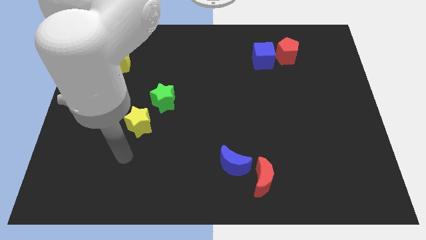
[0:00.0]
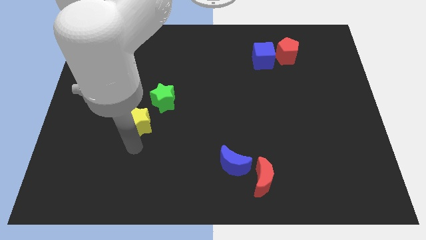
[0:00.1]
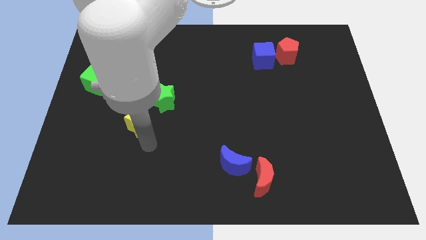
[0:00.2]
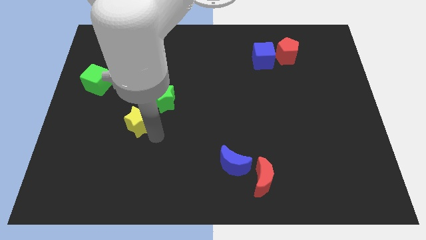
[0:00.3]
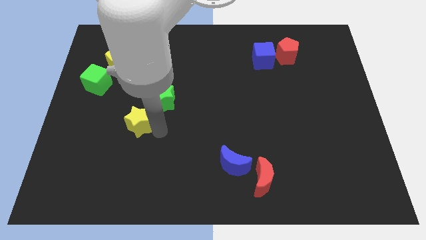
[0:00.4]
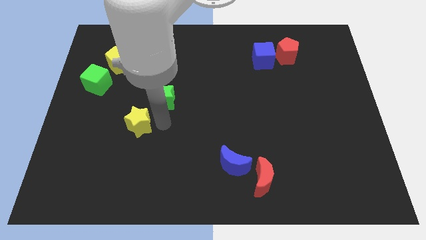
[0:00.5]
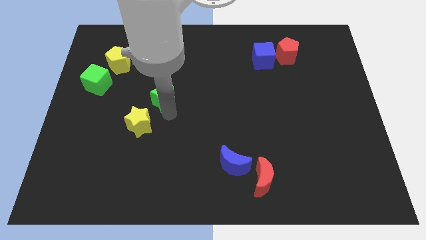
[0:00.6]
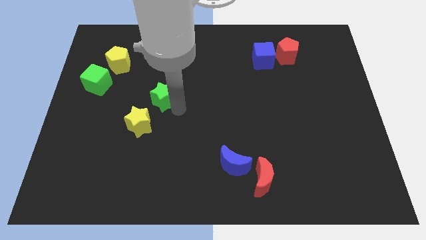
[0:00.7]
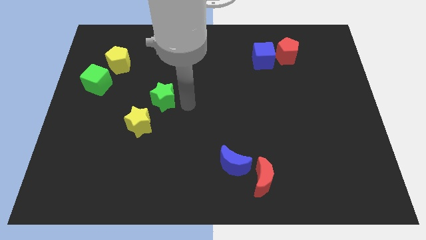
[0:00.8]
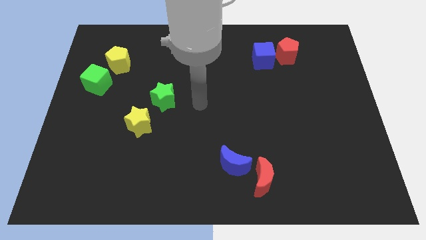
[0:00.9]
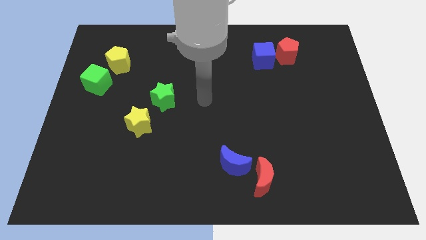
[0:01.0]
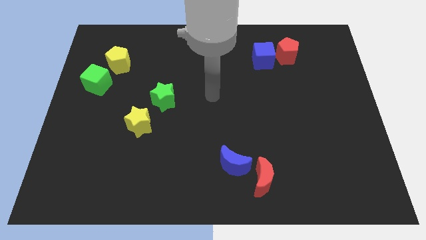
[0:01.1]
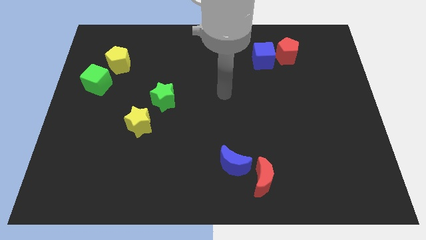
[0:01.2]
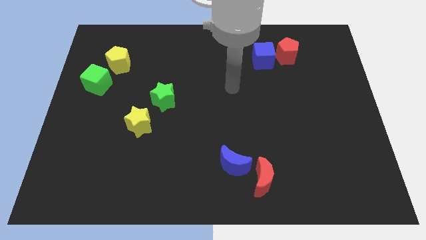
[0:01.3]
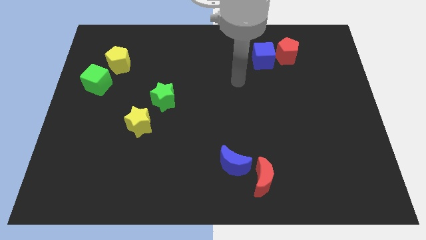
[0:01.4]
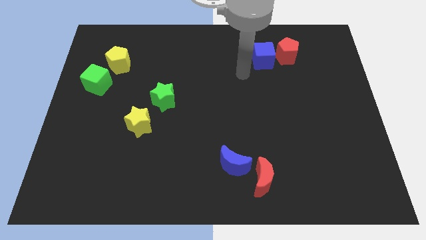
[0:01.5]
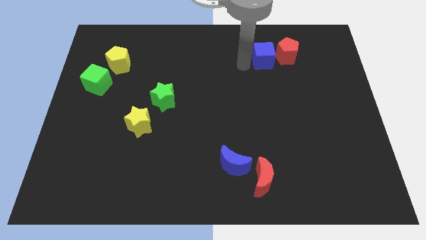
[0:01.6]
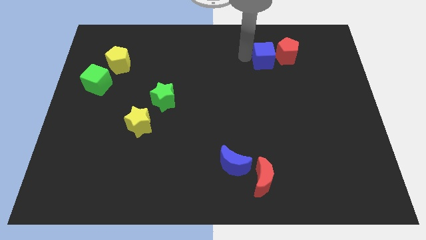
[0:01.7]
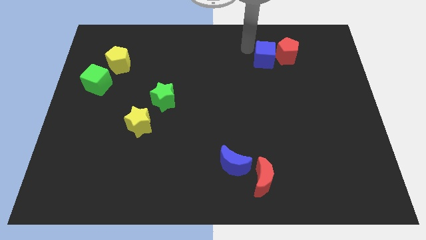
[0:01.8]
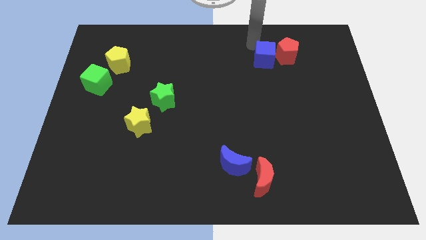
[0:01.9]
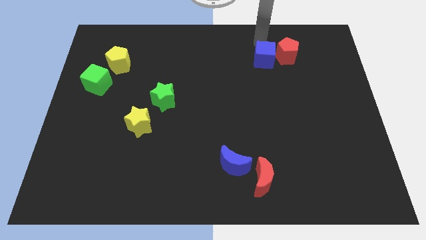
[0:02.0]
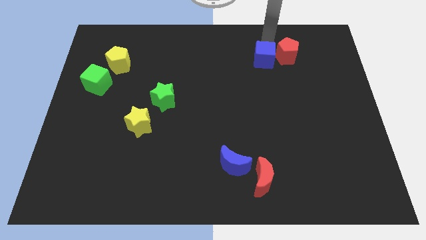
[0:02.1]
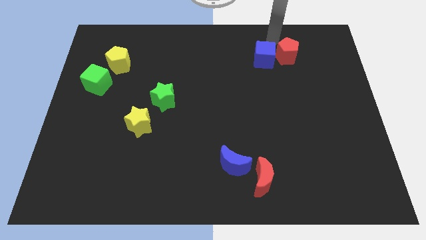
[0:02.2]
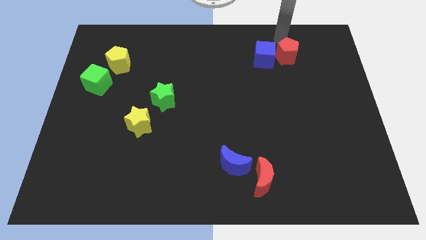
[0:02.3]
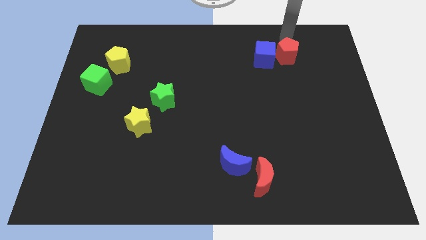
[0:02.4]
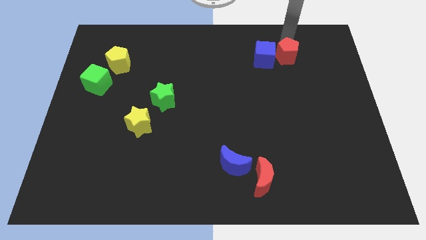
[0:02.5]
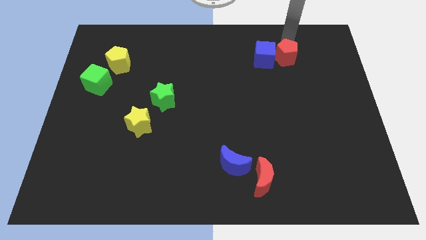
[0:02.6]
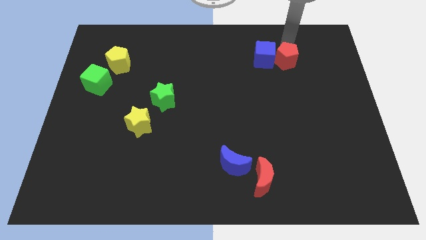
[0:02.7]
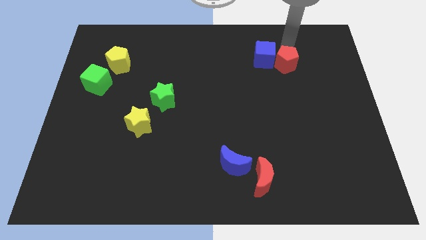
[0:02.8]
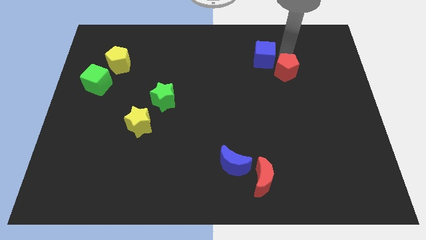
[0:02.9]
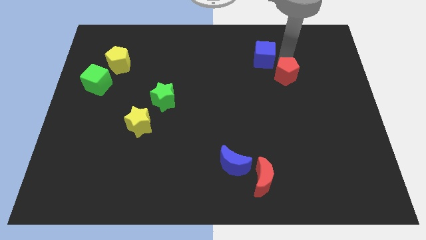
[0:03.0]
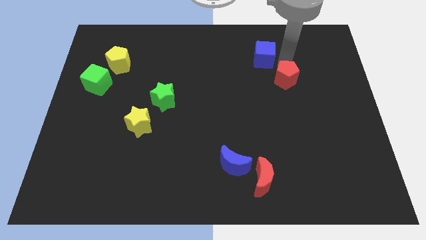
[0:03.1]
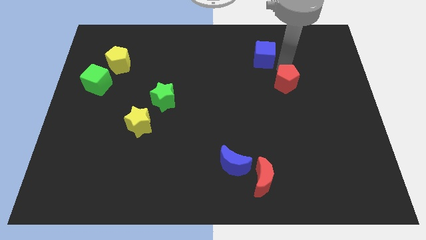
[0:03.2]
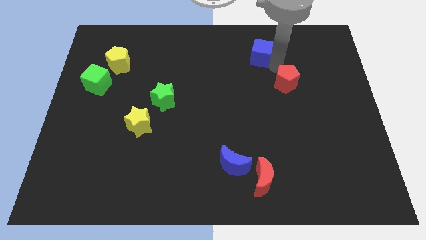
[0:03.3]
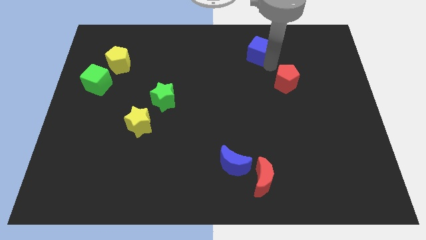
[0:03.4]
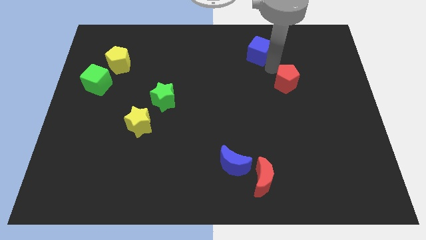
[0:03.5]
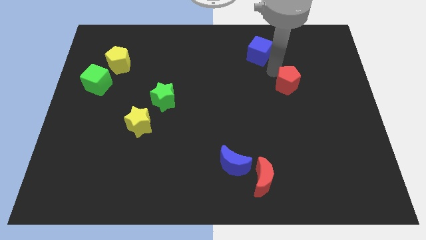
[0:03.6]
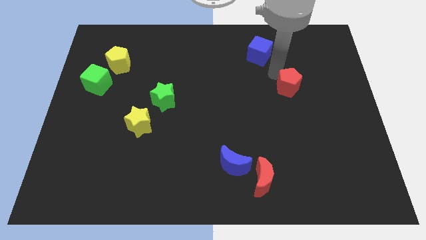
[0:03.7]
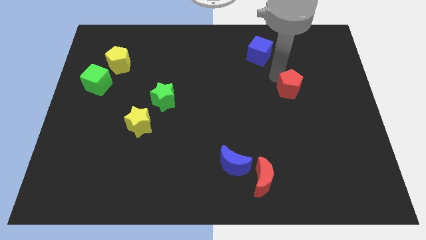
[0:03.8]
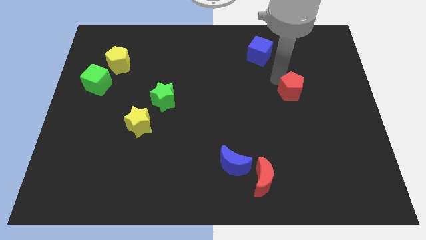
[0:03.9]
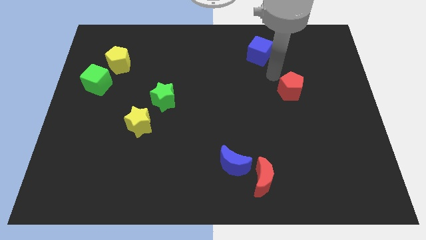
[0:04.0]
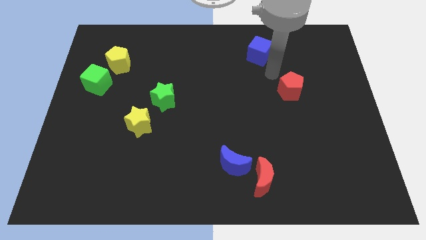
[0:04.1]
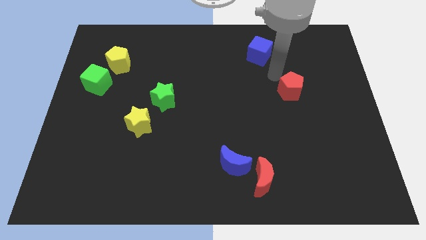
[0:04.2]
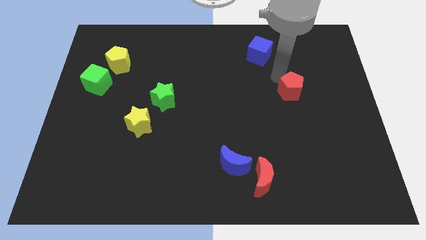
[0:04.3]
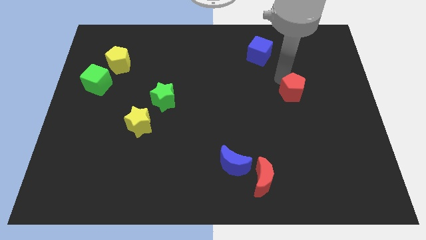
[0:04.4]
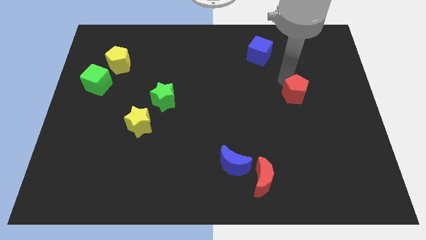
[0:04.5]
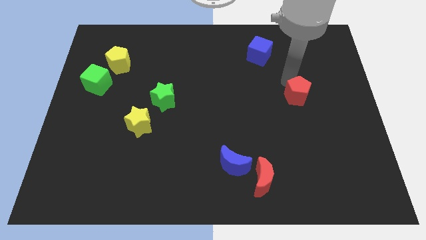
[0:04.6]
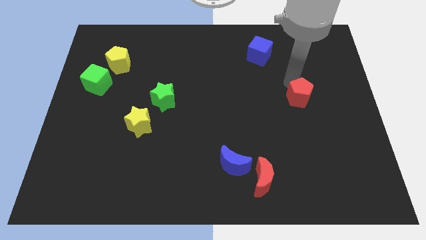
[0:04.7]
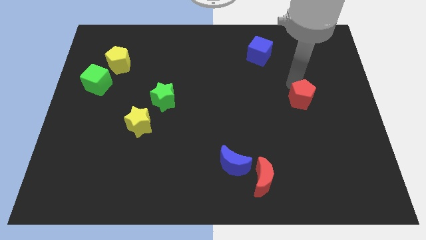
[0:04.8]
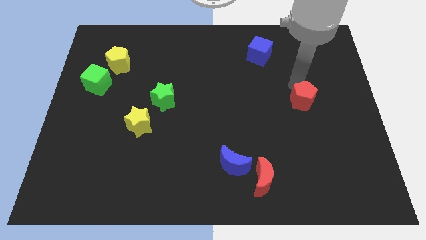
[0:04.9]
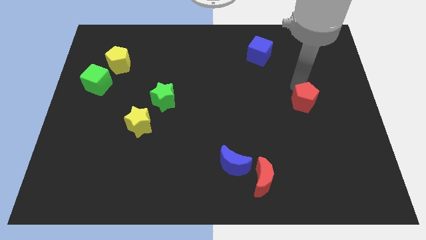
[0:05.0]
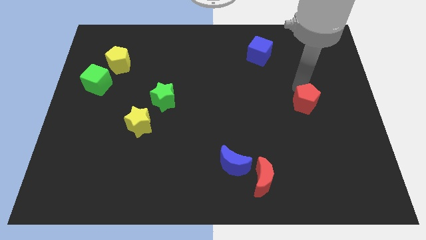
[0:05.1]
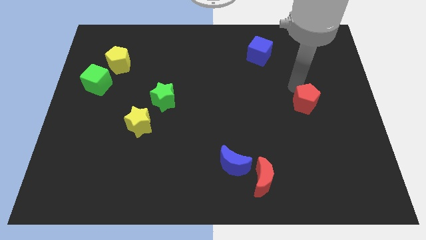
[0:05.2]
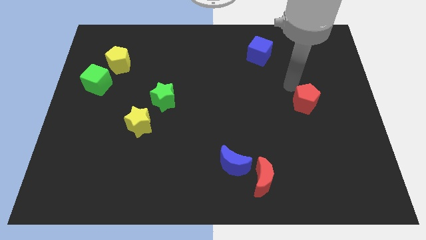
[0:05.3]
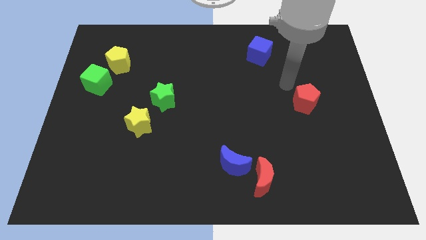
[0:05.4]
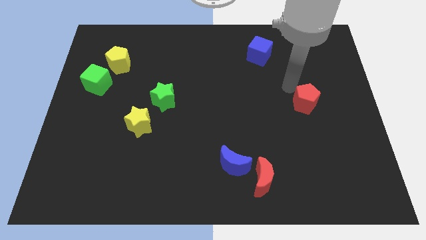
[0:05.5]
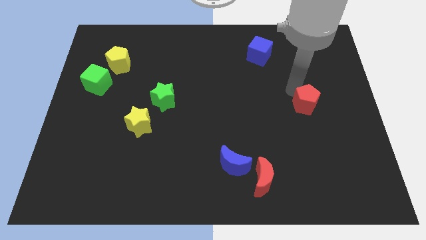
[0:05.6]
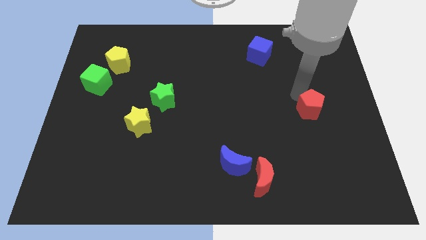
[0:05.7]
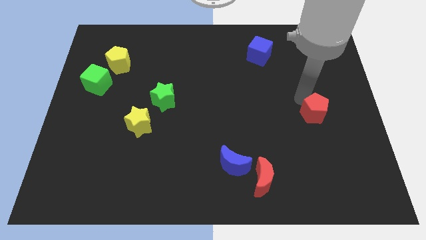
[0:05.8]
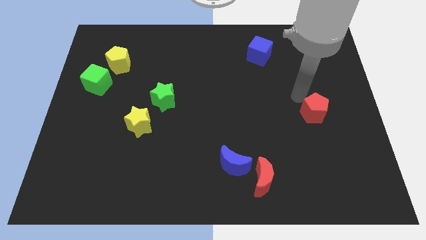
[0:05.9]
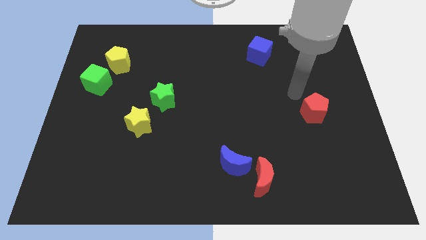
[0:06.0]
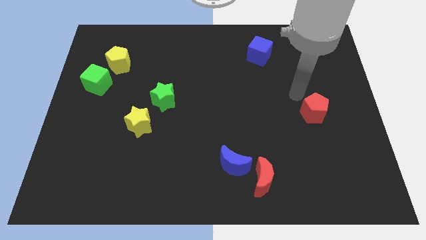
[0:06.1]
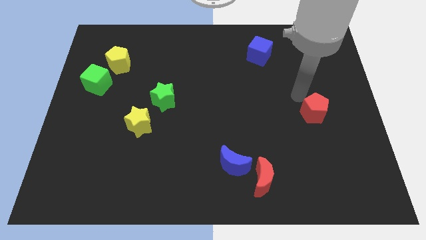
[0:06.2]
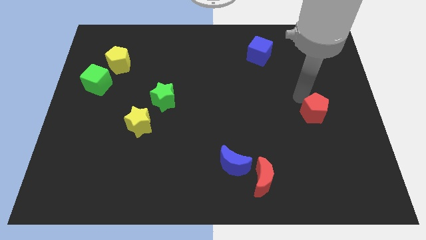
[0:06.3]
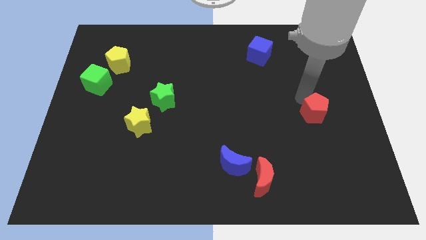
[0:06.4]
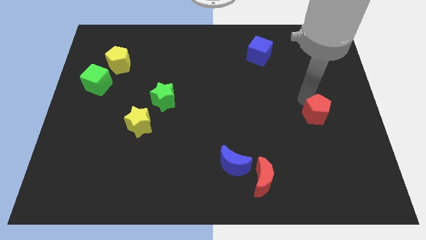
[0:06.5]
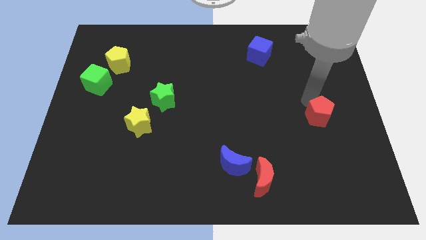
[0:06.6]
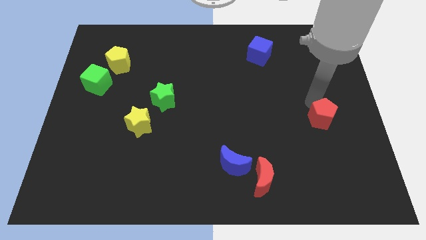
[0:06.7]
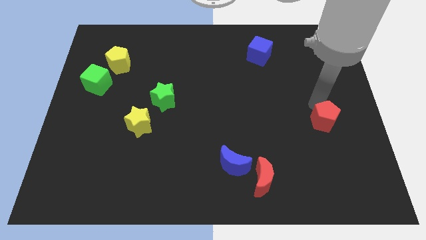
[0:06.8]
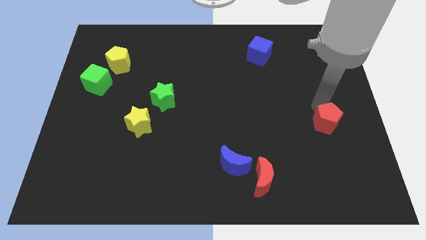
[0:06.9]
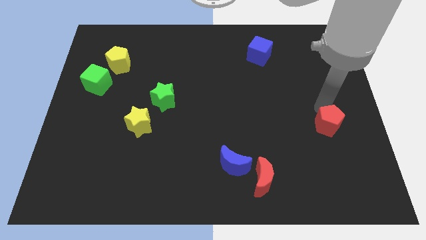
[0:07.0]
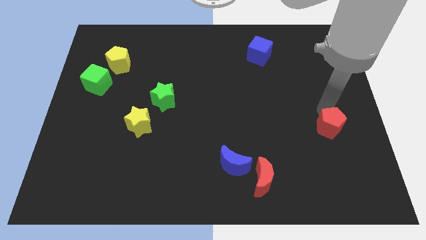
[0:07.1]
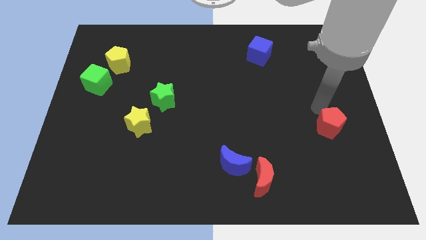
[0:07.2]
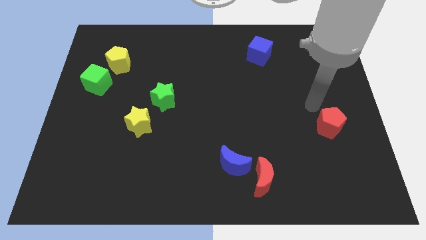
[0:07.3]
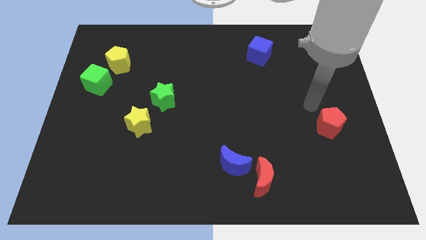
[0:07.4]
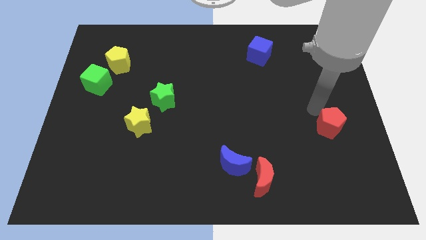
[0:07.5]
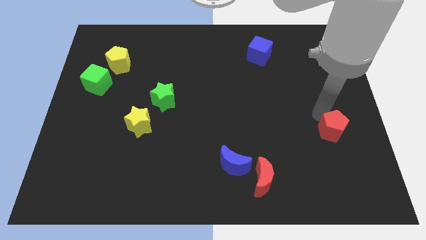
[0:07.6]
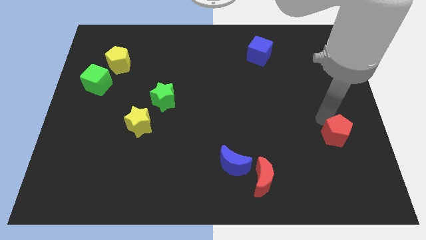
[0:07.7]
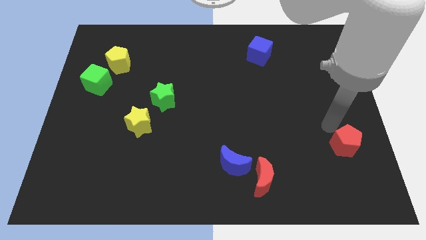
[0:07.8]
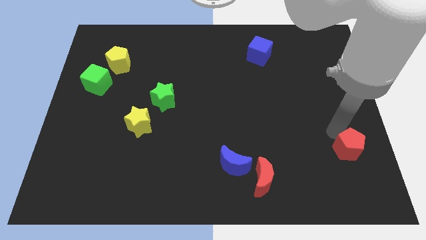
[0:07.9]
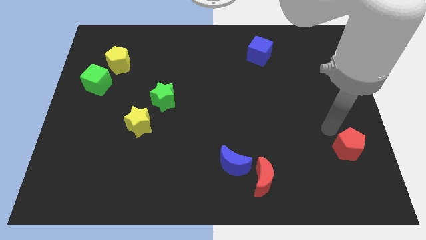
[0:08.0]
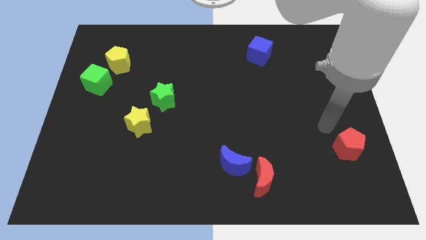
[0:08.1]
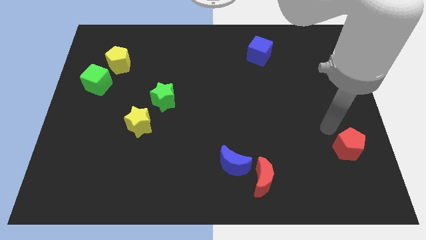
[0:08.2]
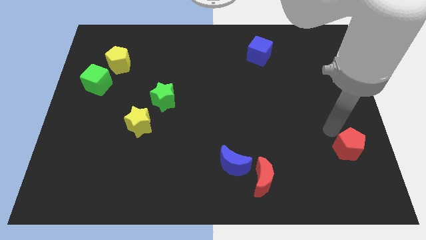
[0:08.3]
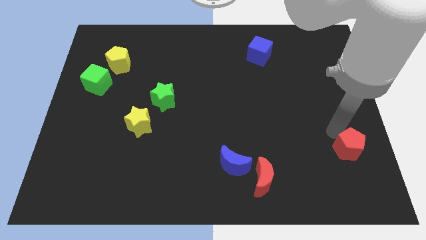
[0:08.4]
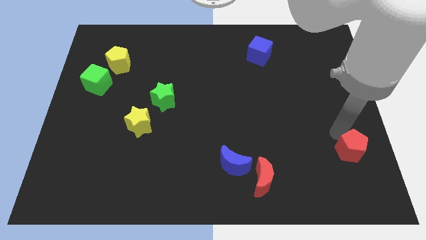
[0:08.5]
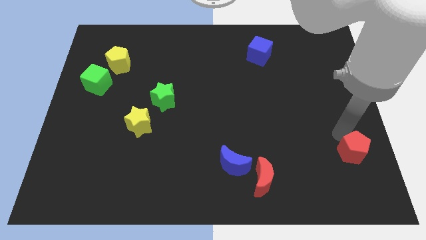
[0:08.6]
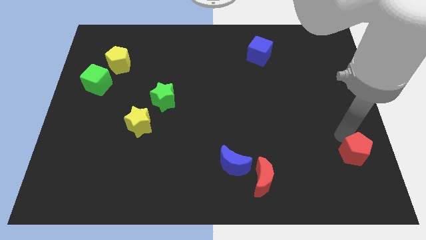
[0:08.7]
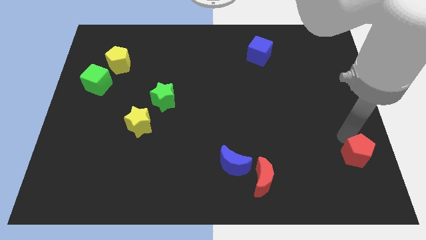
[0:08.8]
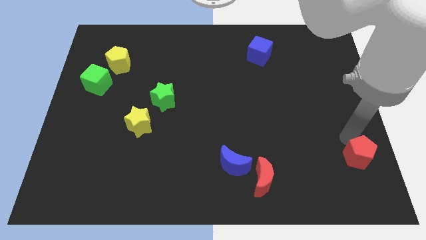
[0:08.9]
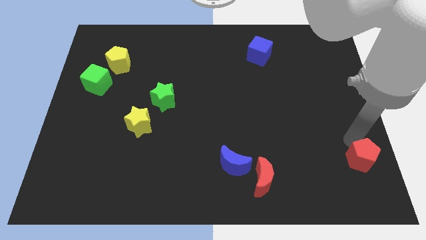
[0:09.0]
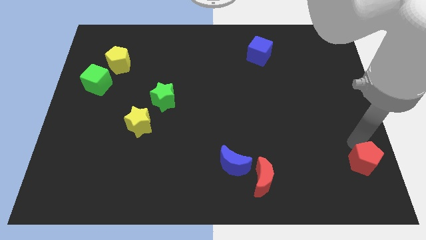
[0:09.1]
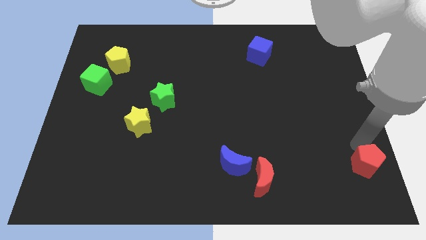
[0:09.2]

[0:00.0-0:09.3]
push the red pentagon to the bottom right corner
